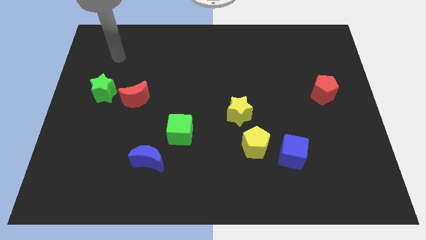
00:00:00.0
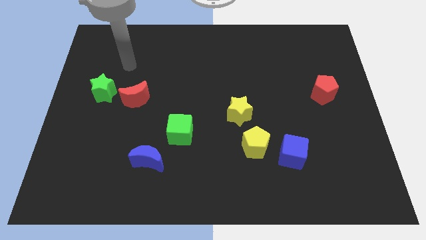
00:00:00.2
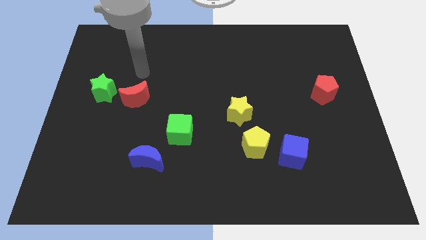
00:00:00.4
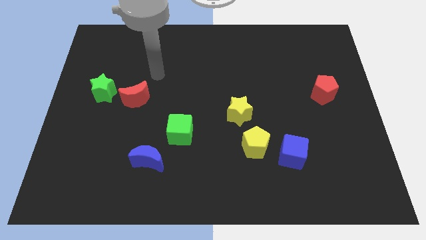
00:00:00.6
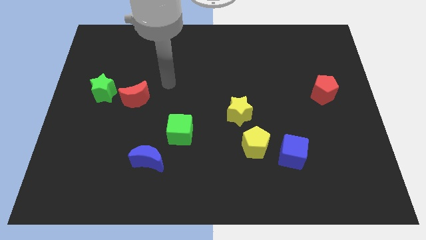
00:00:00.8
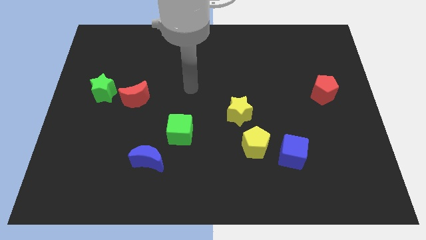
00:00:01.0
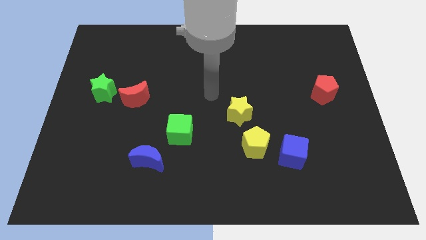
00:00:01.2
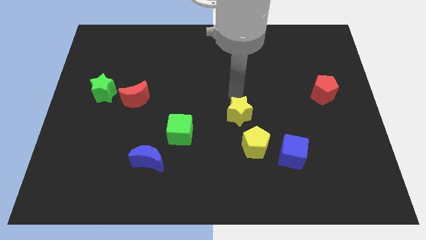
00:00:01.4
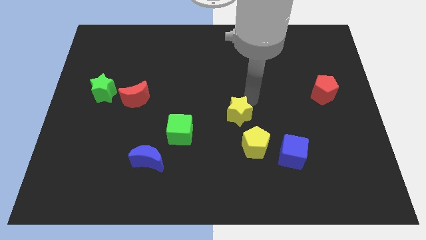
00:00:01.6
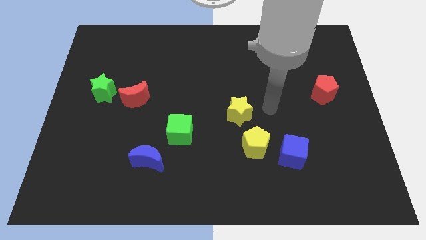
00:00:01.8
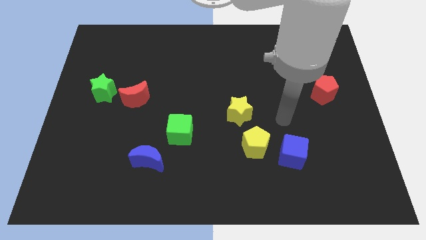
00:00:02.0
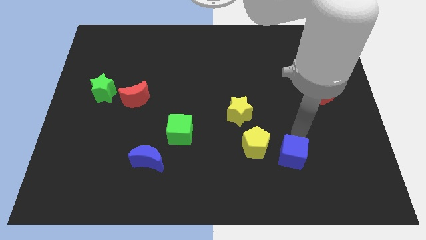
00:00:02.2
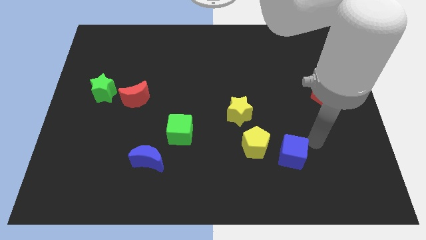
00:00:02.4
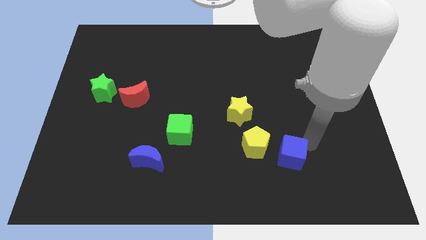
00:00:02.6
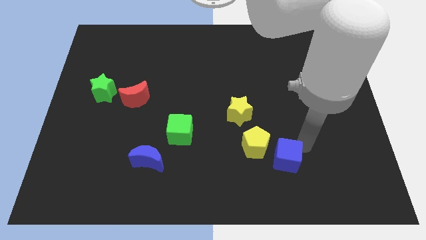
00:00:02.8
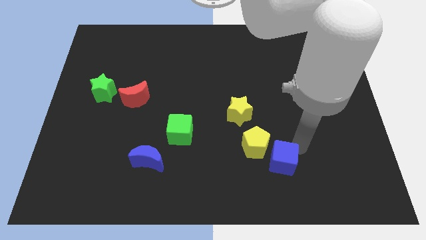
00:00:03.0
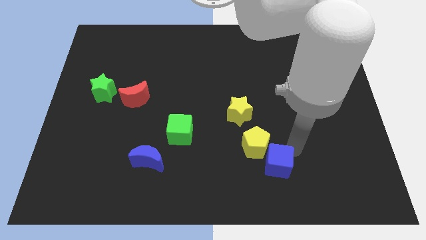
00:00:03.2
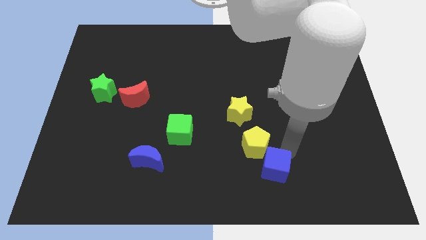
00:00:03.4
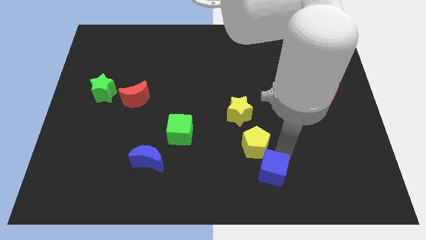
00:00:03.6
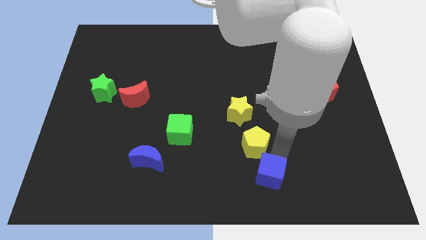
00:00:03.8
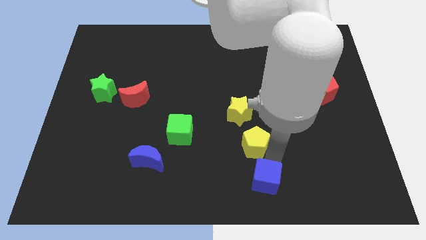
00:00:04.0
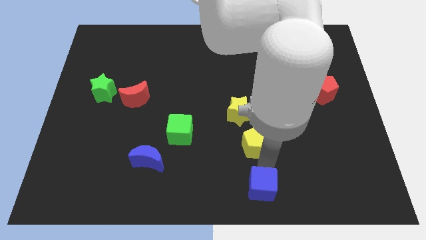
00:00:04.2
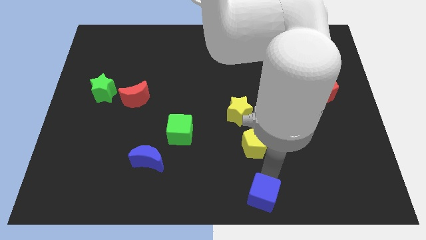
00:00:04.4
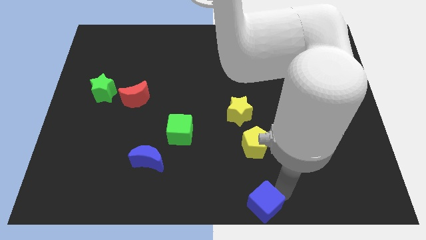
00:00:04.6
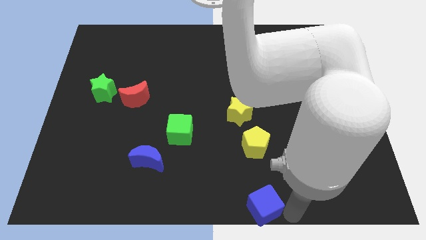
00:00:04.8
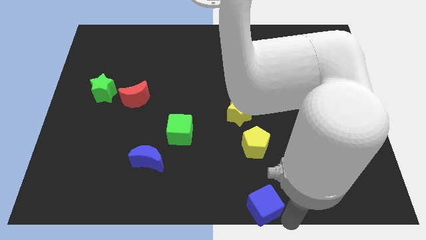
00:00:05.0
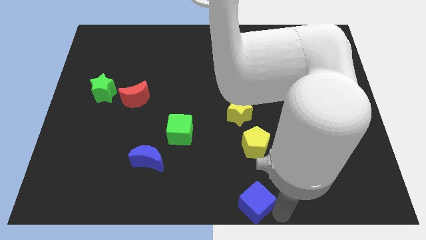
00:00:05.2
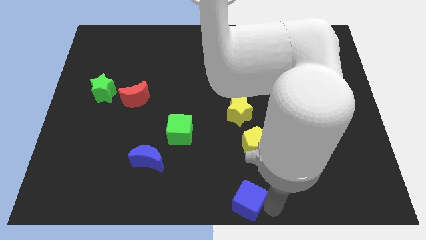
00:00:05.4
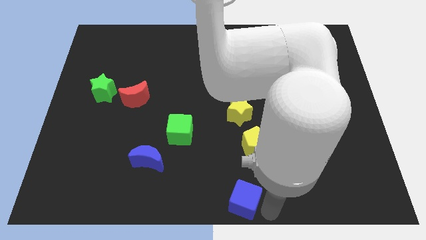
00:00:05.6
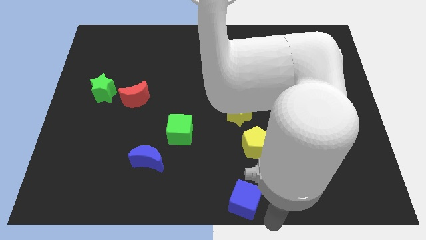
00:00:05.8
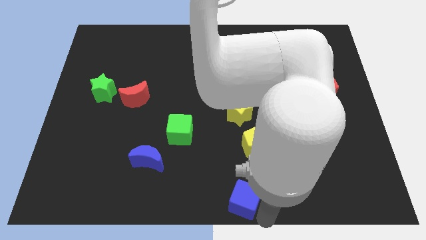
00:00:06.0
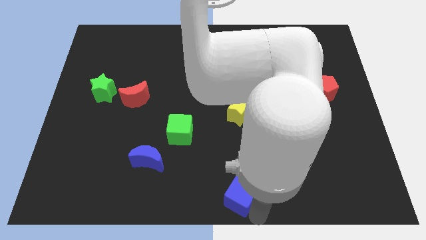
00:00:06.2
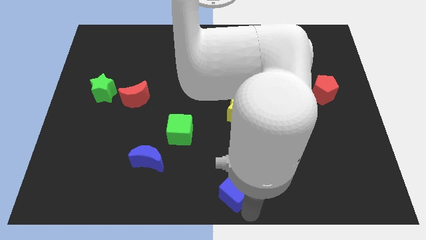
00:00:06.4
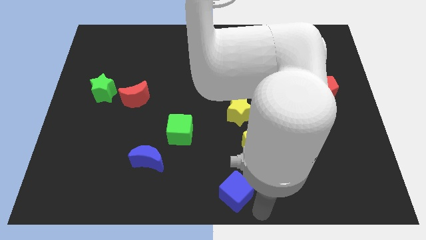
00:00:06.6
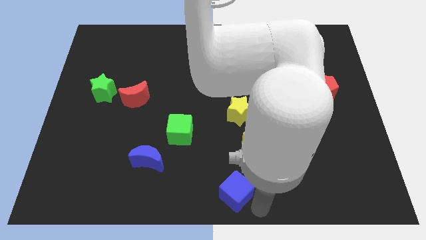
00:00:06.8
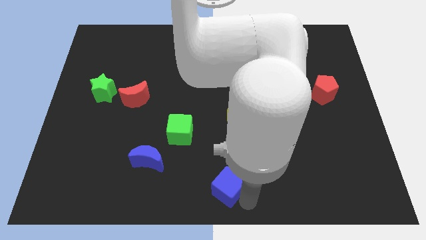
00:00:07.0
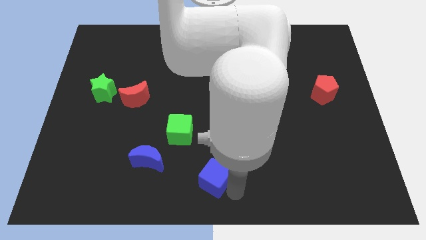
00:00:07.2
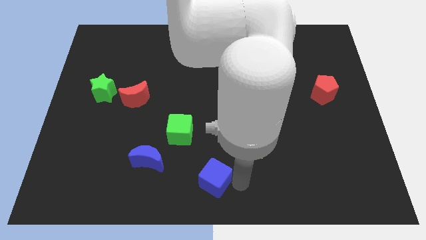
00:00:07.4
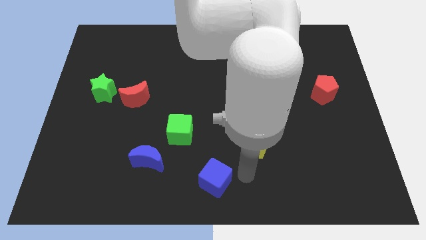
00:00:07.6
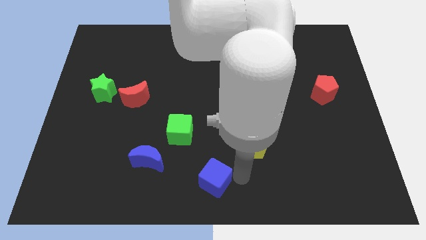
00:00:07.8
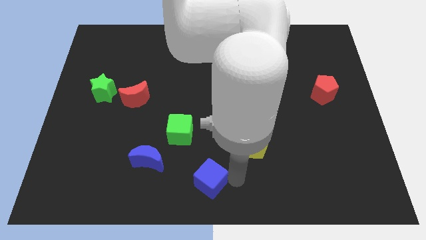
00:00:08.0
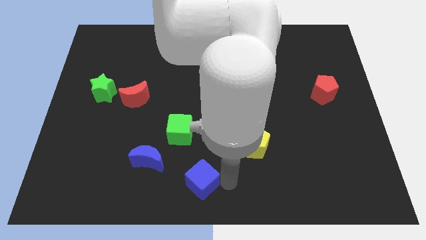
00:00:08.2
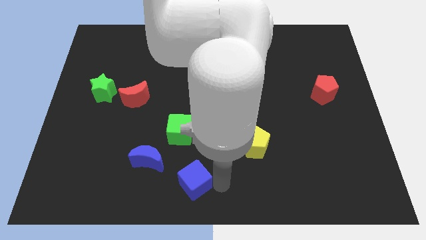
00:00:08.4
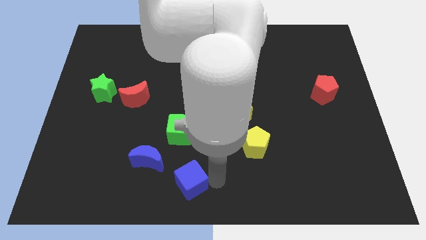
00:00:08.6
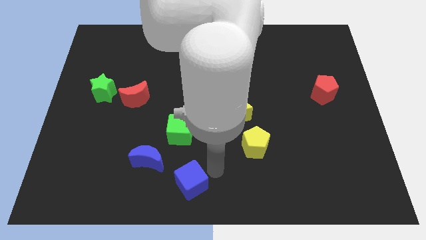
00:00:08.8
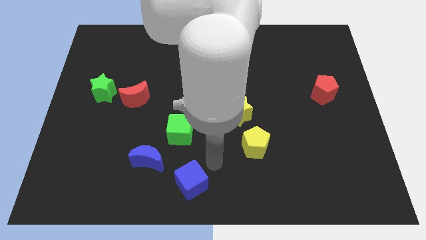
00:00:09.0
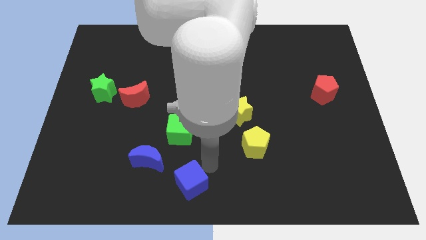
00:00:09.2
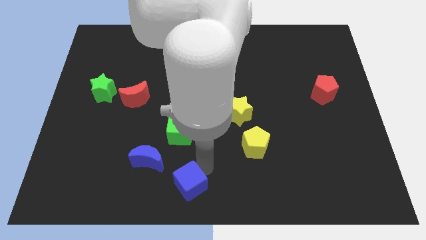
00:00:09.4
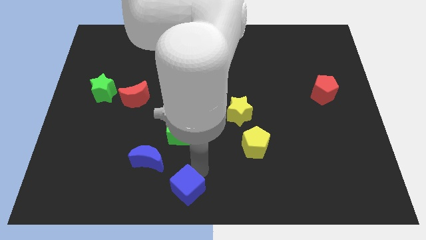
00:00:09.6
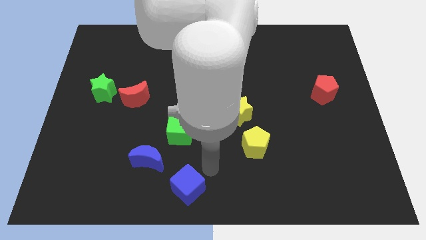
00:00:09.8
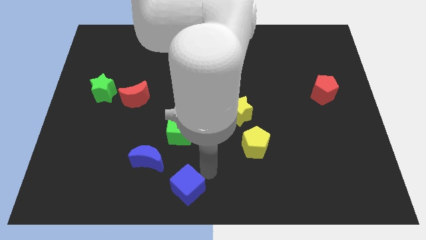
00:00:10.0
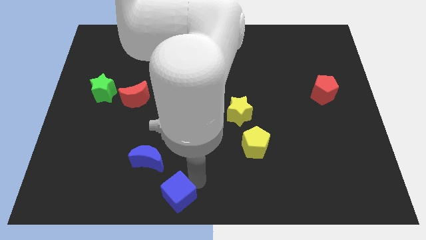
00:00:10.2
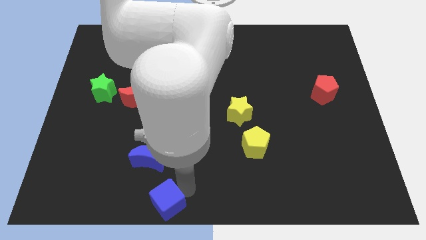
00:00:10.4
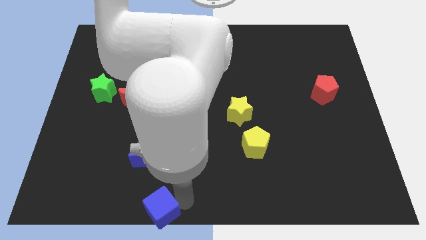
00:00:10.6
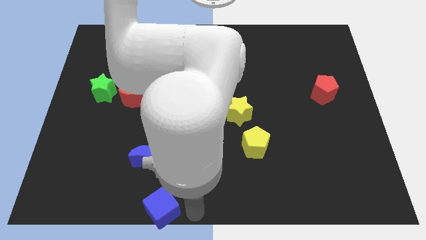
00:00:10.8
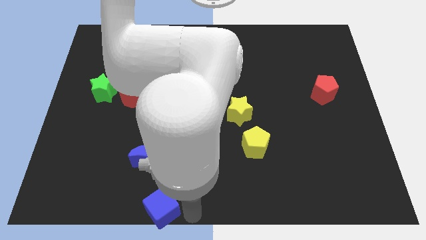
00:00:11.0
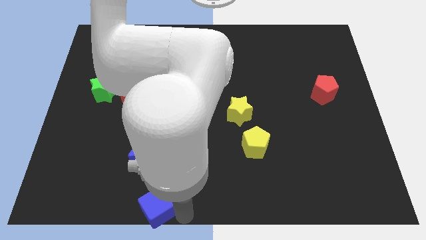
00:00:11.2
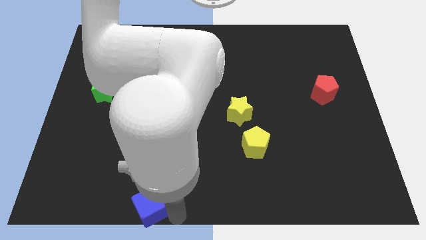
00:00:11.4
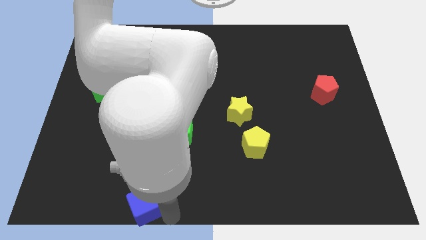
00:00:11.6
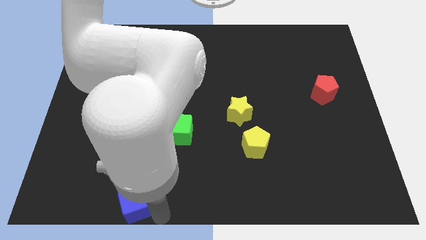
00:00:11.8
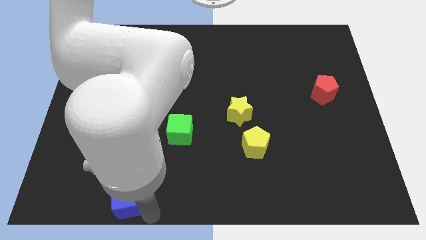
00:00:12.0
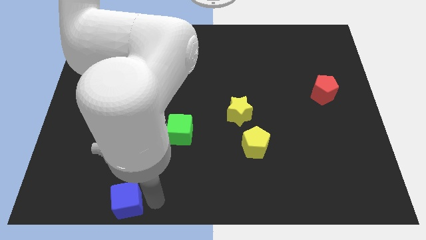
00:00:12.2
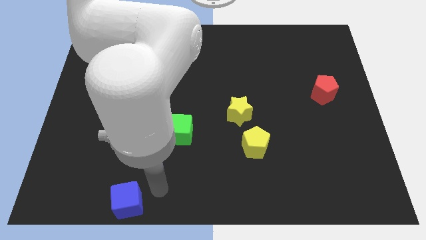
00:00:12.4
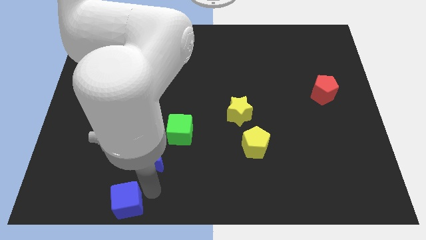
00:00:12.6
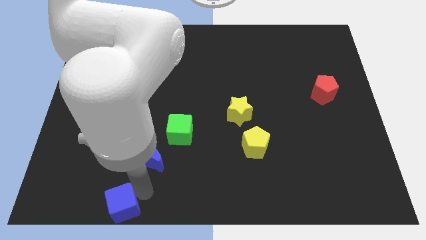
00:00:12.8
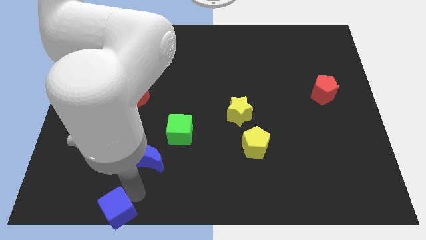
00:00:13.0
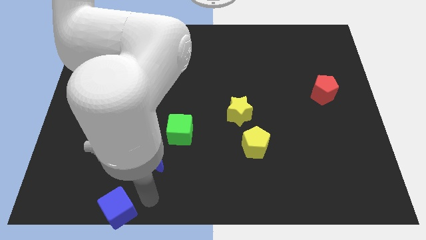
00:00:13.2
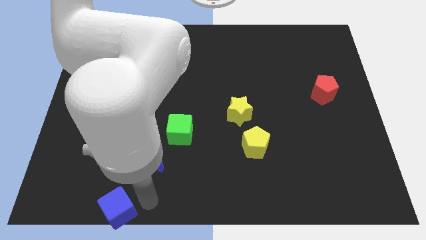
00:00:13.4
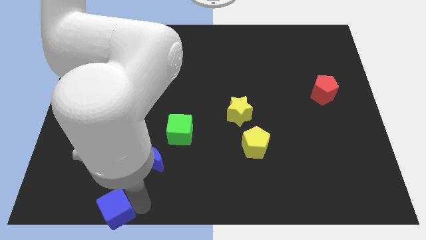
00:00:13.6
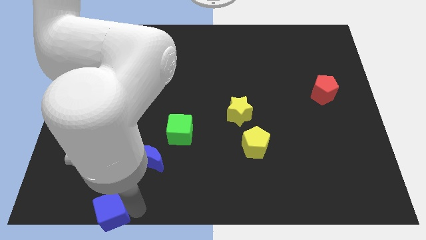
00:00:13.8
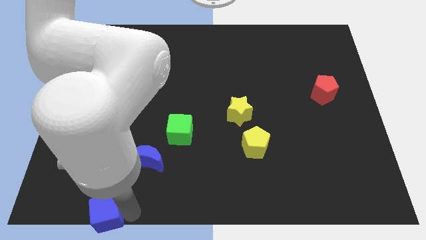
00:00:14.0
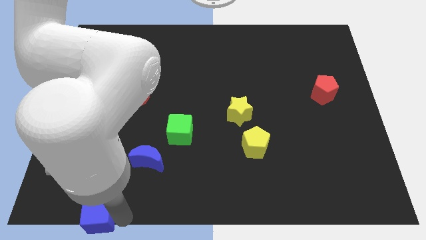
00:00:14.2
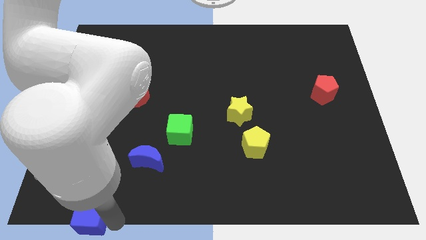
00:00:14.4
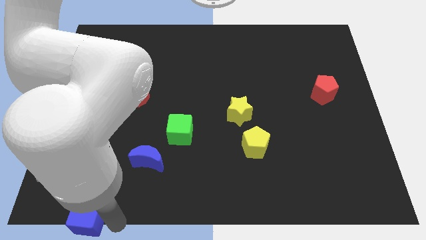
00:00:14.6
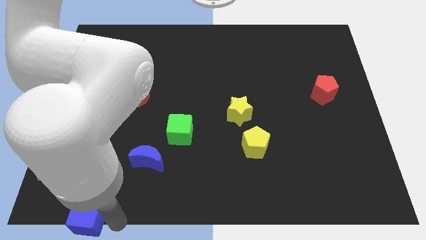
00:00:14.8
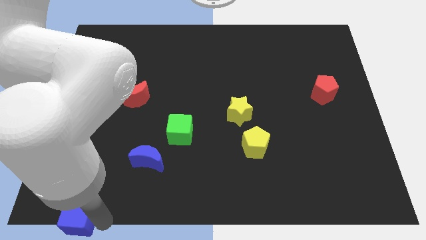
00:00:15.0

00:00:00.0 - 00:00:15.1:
push the blue cube to the bottom left corner
